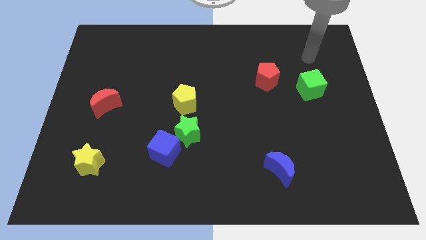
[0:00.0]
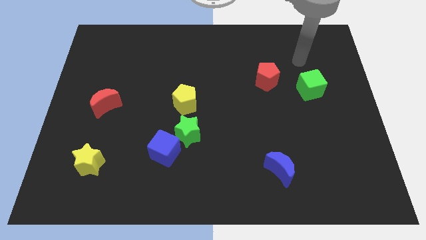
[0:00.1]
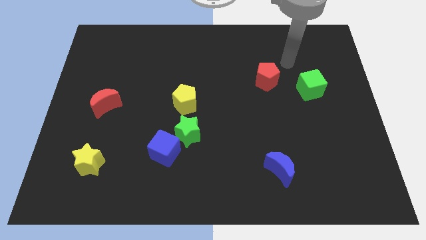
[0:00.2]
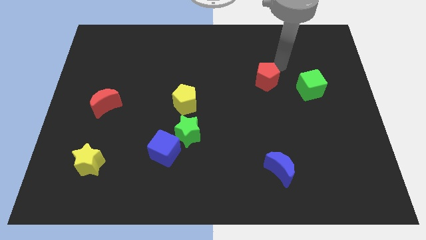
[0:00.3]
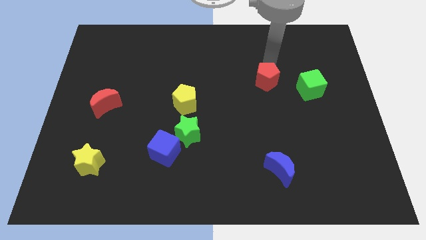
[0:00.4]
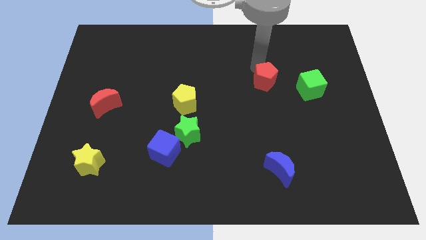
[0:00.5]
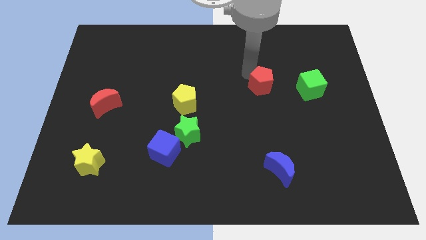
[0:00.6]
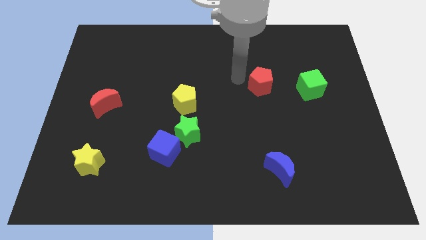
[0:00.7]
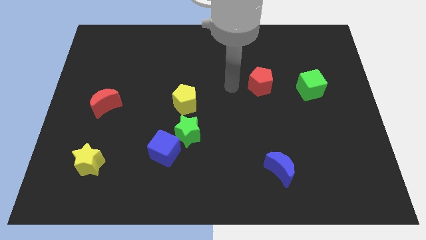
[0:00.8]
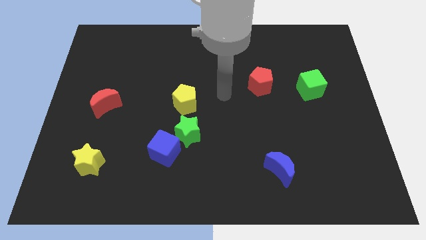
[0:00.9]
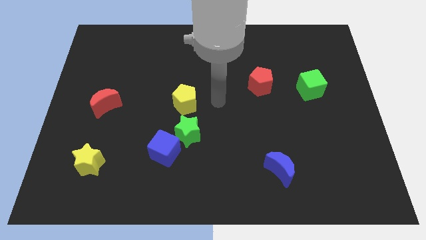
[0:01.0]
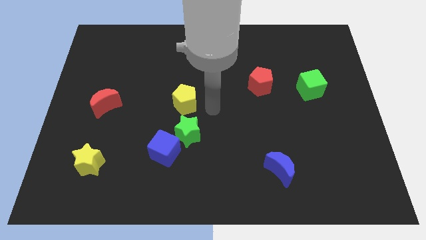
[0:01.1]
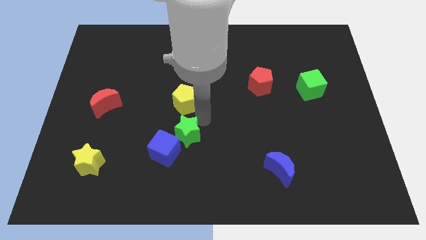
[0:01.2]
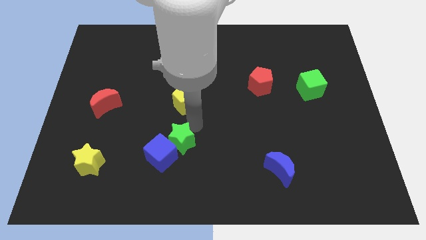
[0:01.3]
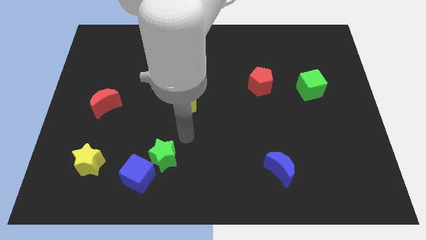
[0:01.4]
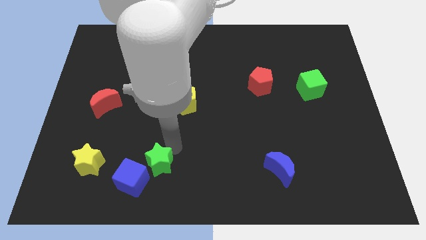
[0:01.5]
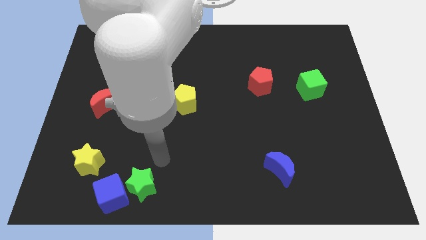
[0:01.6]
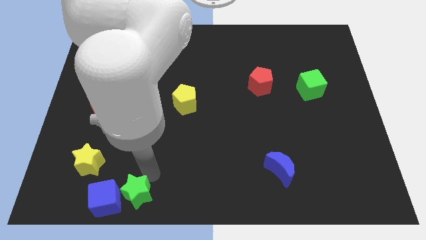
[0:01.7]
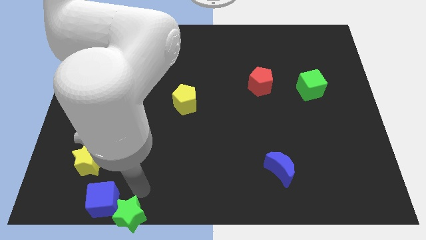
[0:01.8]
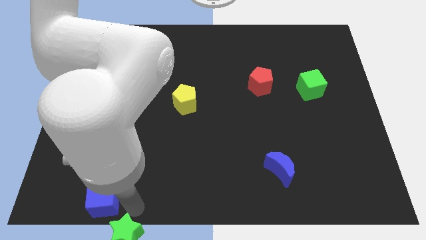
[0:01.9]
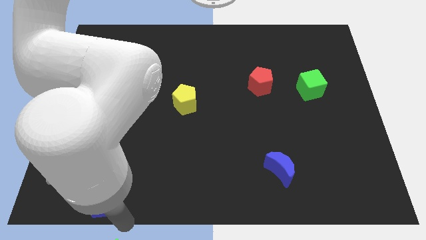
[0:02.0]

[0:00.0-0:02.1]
separate the blue cube from the green star

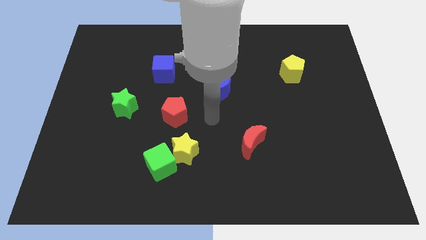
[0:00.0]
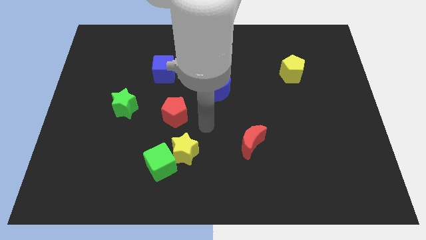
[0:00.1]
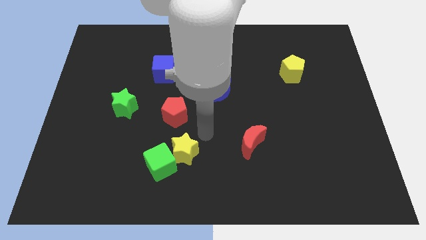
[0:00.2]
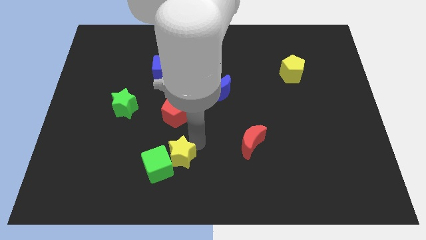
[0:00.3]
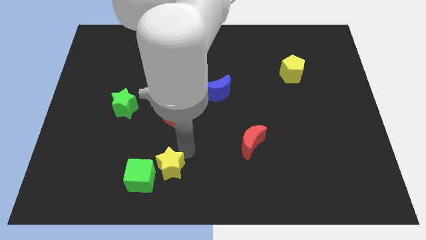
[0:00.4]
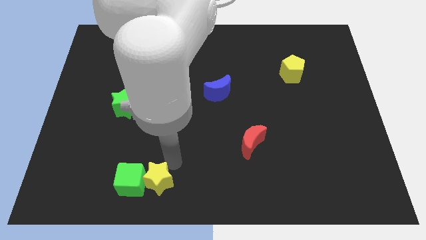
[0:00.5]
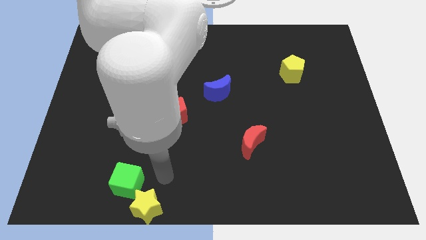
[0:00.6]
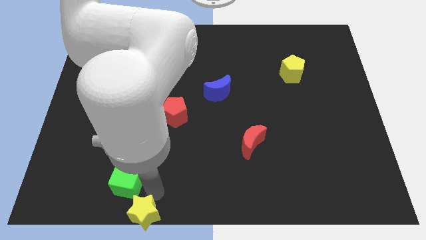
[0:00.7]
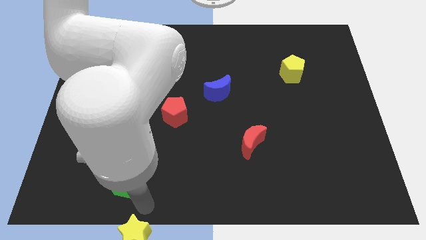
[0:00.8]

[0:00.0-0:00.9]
move the green cube away from the yellow star

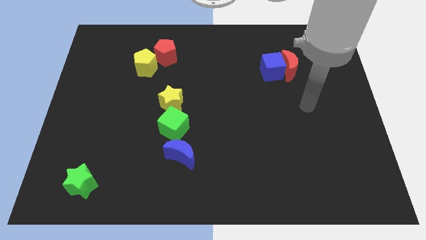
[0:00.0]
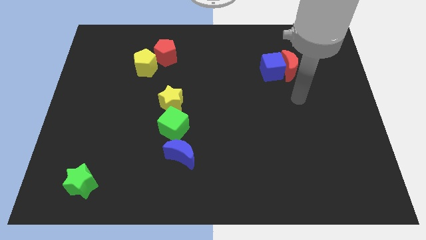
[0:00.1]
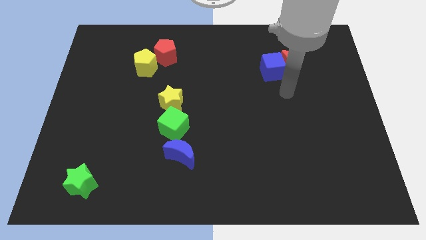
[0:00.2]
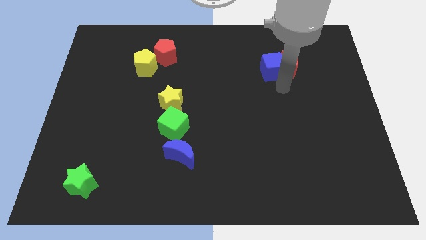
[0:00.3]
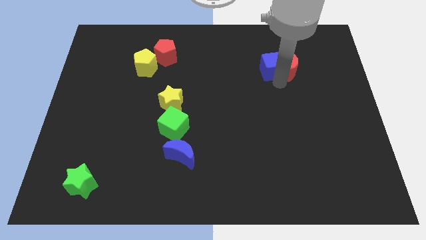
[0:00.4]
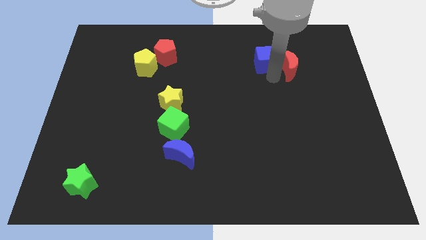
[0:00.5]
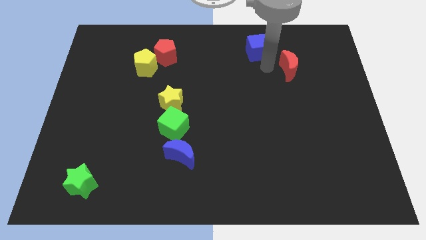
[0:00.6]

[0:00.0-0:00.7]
move the red moon away from the blue cube

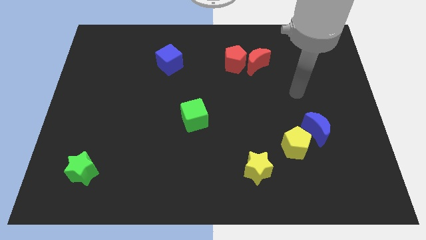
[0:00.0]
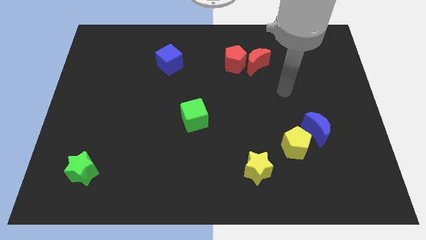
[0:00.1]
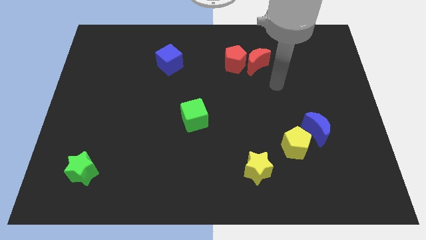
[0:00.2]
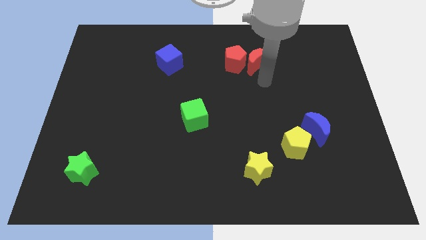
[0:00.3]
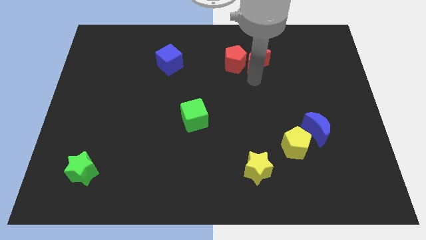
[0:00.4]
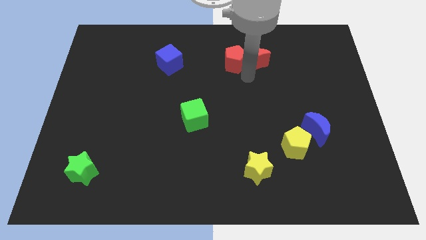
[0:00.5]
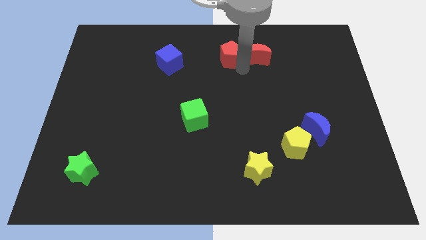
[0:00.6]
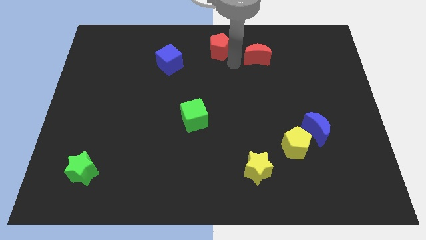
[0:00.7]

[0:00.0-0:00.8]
move the red moon away from the red pentagon

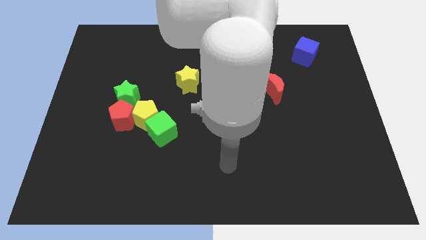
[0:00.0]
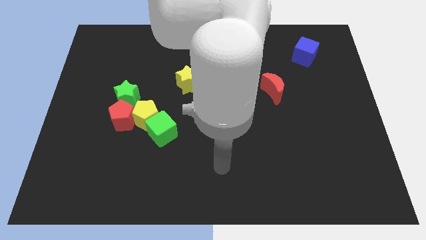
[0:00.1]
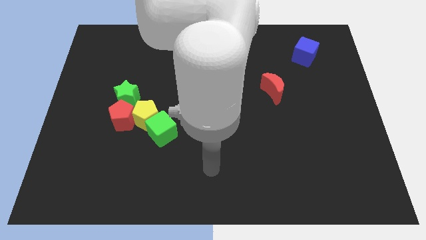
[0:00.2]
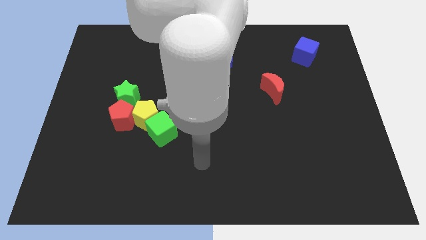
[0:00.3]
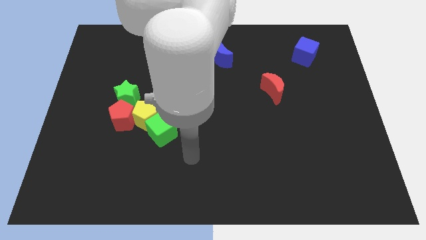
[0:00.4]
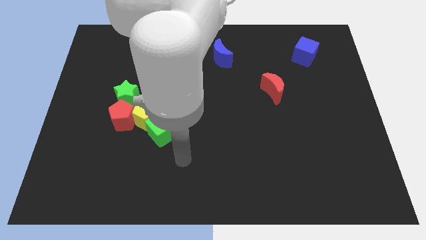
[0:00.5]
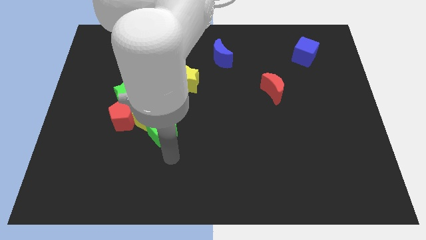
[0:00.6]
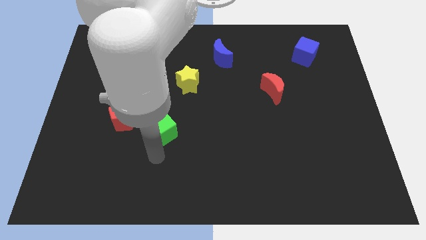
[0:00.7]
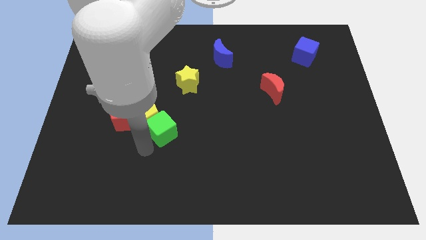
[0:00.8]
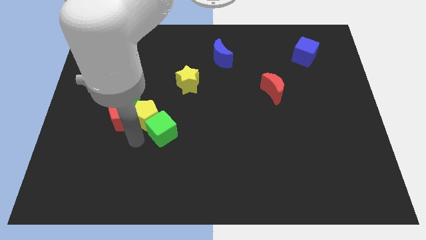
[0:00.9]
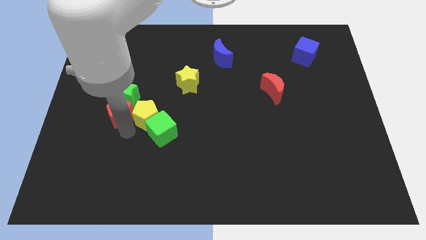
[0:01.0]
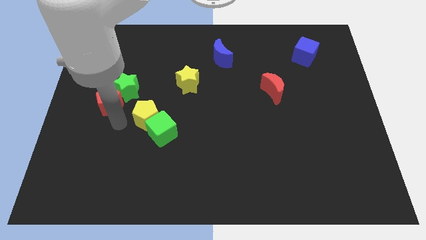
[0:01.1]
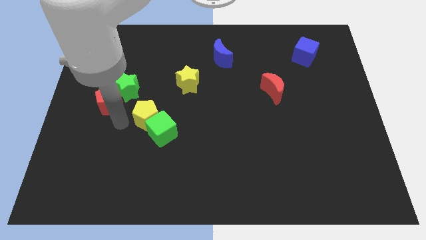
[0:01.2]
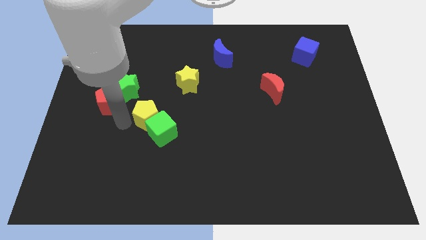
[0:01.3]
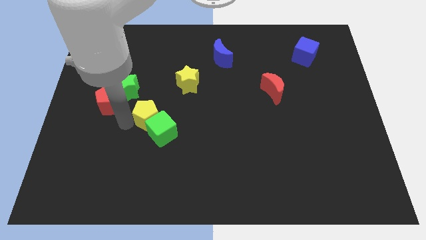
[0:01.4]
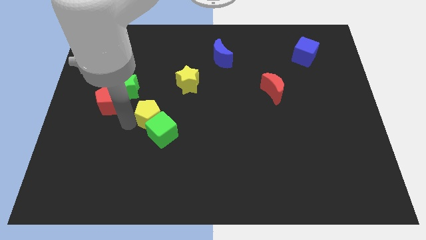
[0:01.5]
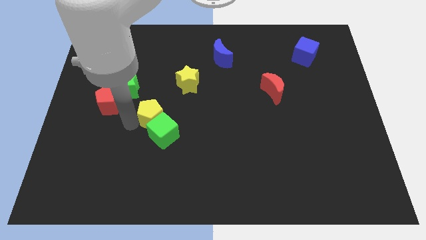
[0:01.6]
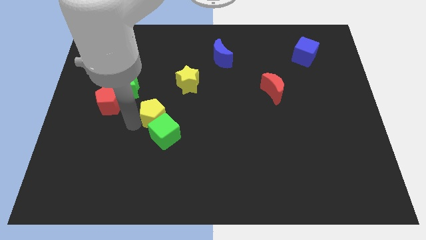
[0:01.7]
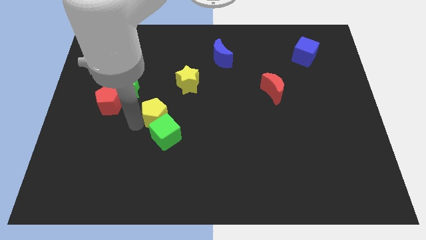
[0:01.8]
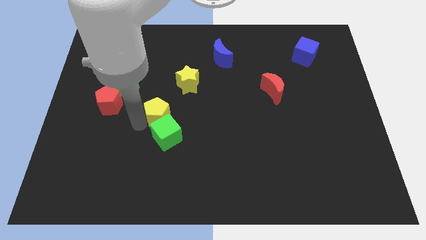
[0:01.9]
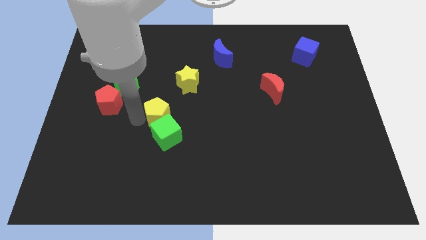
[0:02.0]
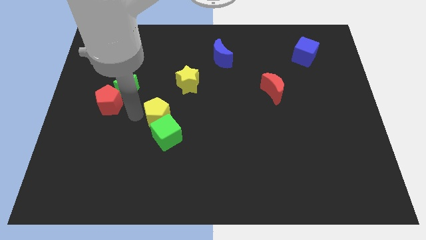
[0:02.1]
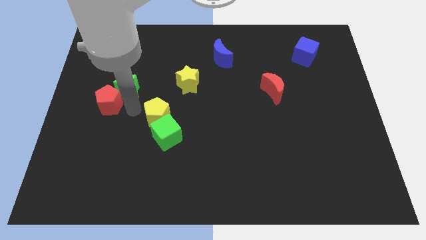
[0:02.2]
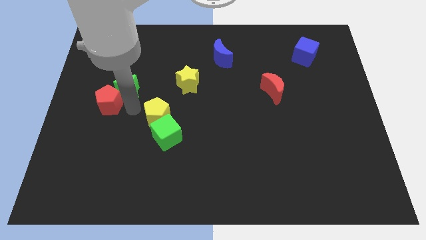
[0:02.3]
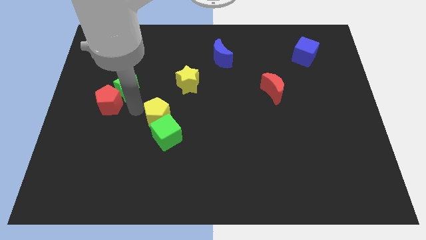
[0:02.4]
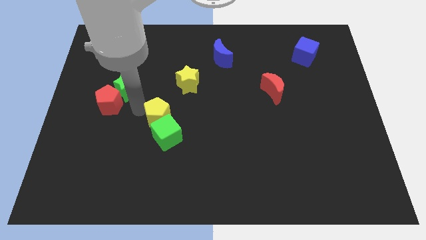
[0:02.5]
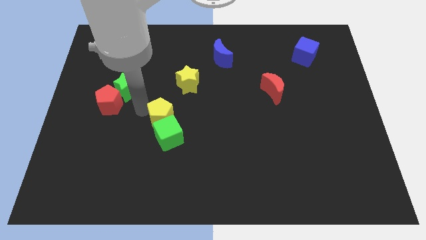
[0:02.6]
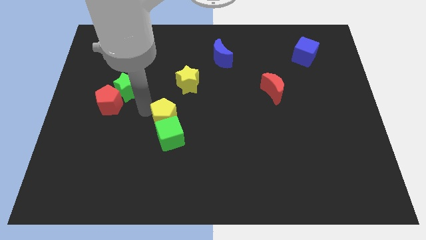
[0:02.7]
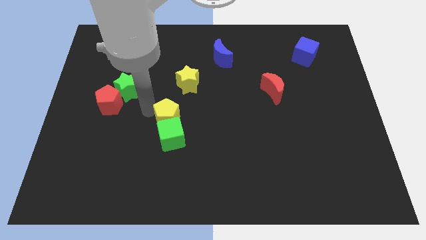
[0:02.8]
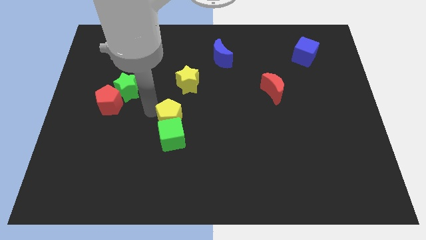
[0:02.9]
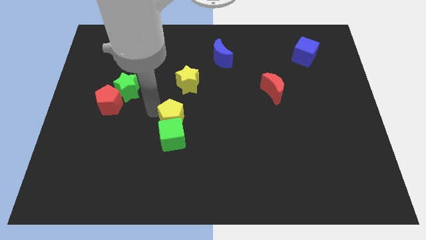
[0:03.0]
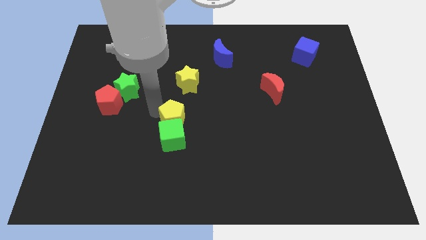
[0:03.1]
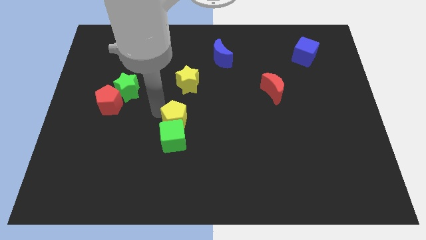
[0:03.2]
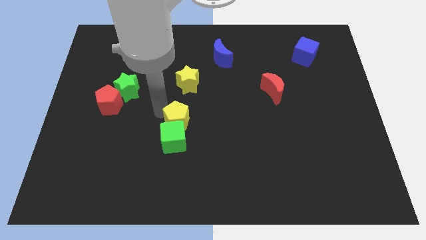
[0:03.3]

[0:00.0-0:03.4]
separate the yellow pentagon from the clump

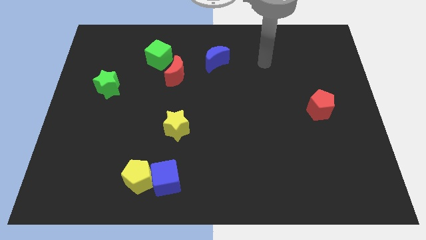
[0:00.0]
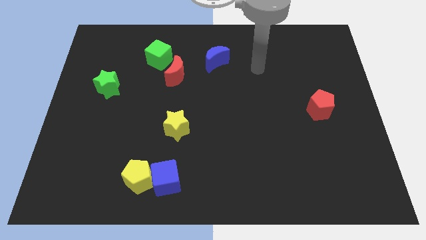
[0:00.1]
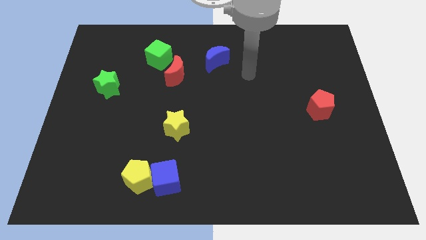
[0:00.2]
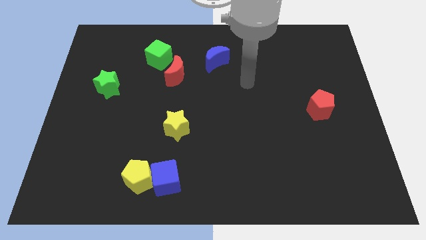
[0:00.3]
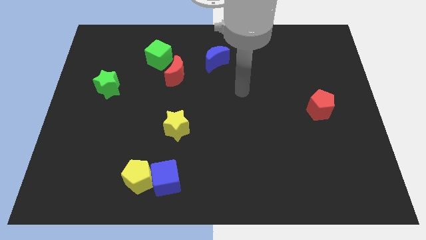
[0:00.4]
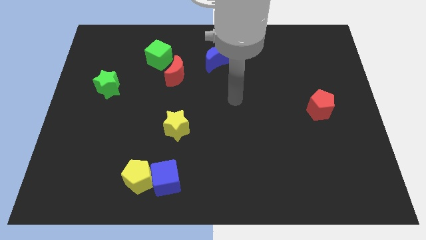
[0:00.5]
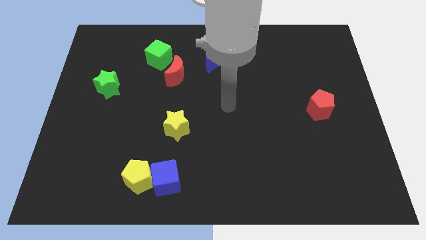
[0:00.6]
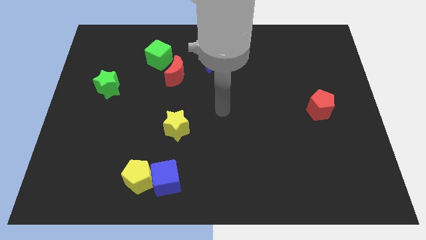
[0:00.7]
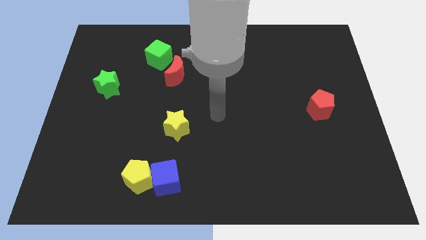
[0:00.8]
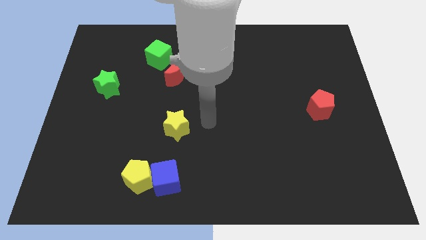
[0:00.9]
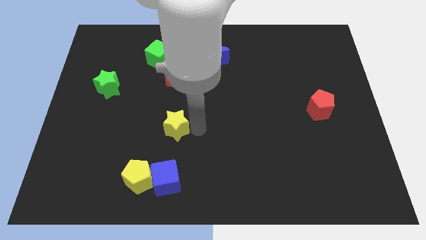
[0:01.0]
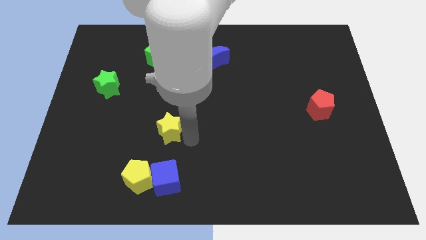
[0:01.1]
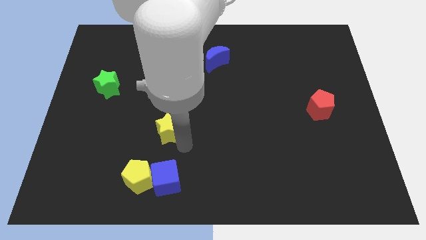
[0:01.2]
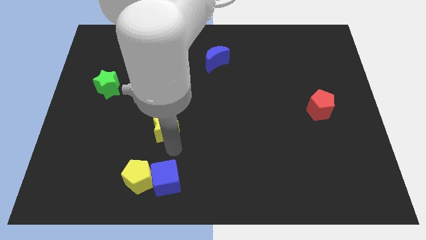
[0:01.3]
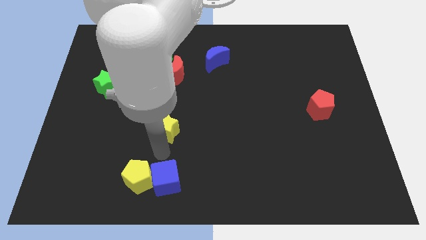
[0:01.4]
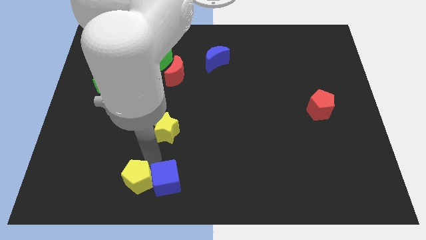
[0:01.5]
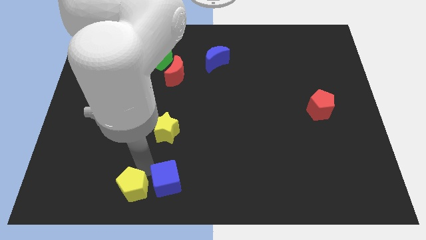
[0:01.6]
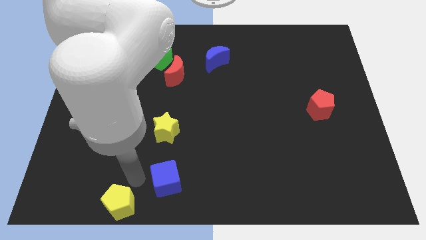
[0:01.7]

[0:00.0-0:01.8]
pull the blue cube apart from the yellow pentagon
